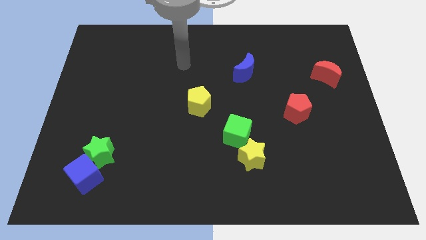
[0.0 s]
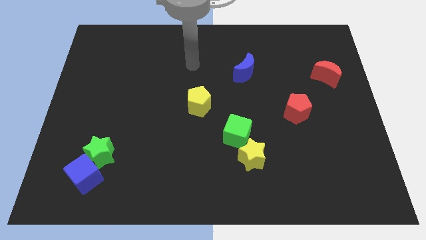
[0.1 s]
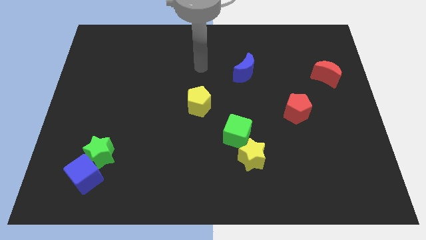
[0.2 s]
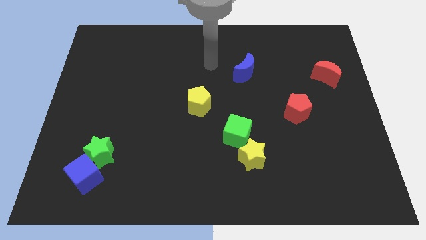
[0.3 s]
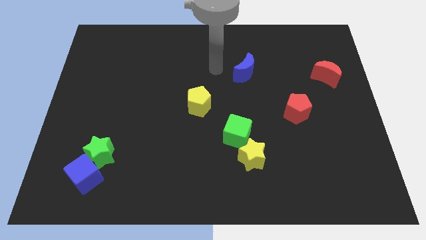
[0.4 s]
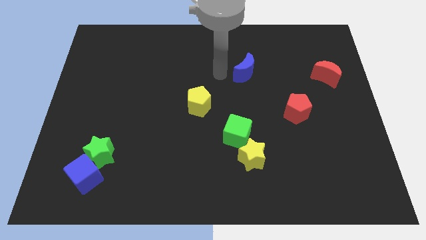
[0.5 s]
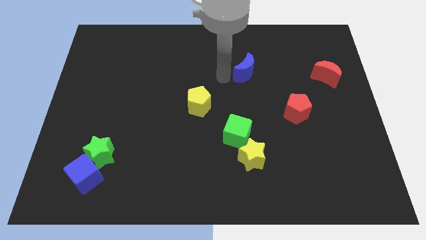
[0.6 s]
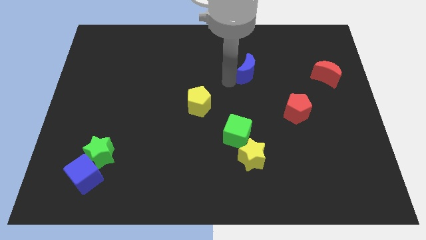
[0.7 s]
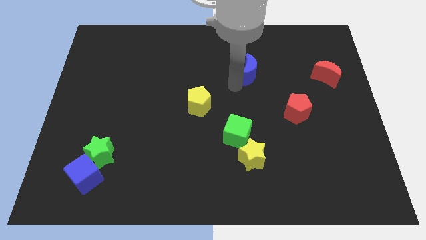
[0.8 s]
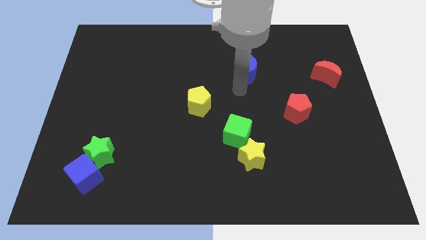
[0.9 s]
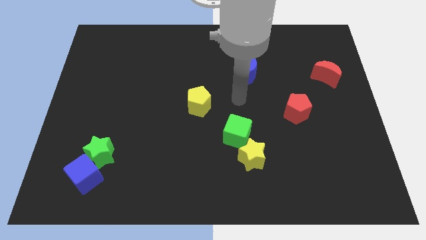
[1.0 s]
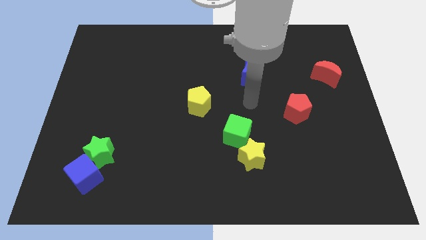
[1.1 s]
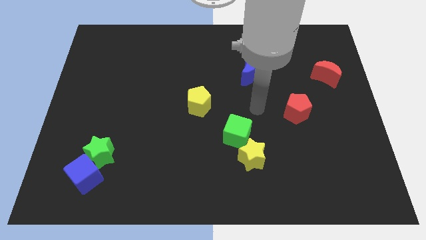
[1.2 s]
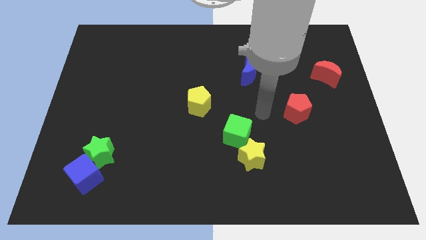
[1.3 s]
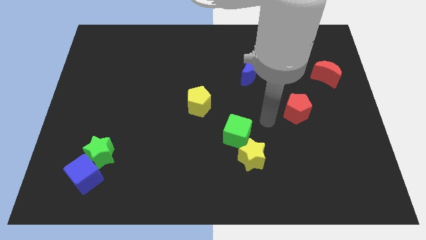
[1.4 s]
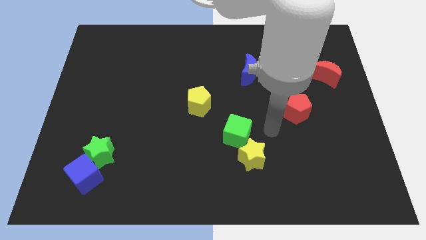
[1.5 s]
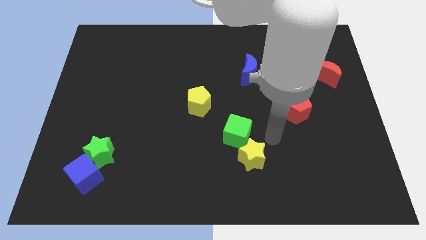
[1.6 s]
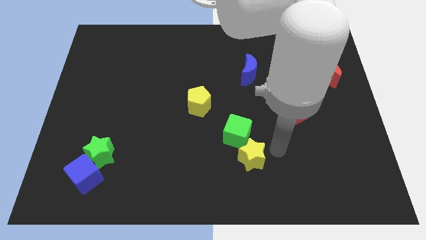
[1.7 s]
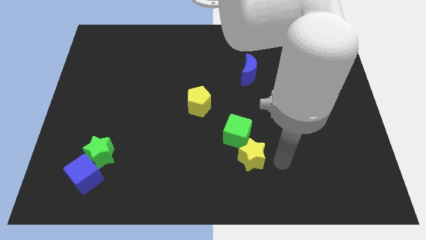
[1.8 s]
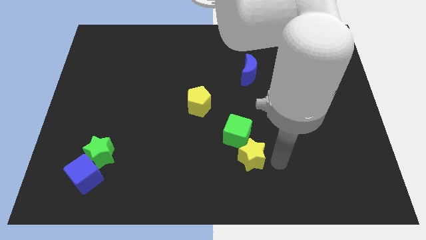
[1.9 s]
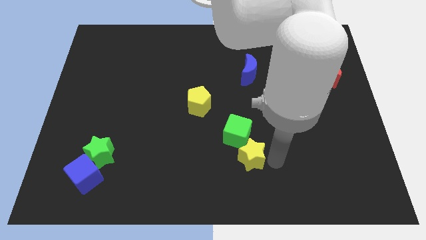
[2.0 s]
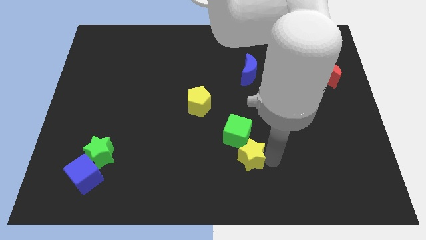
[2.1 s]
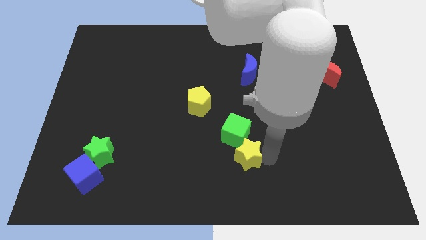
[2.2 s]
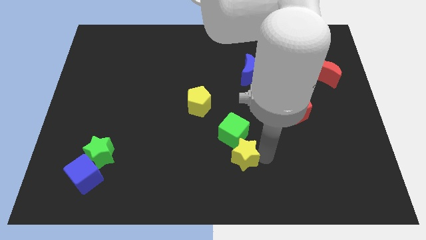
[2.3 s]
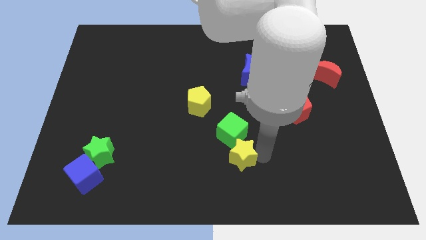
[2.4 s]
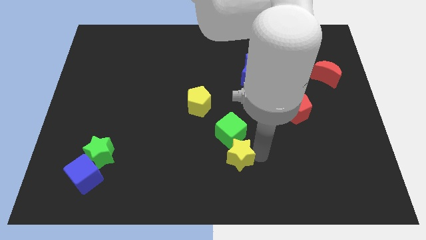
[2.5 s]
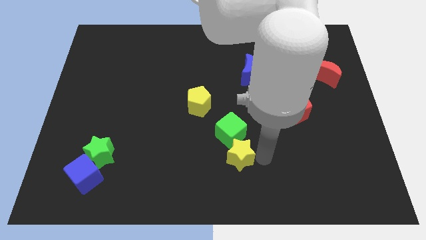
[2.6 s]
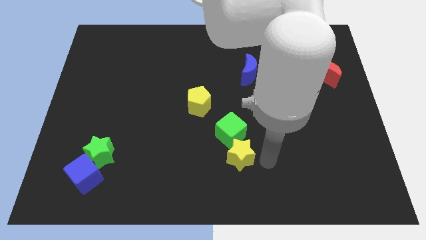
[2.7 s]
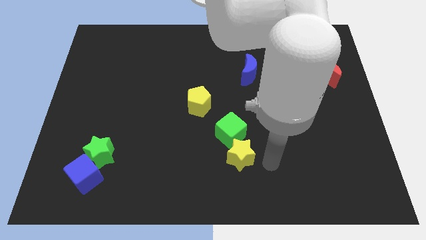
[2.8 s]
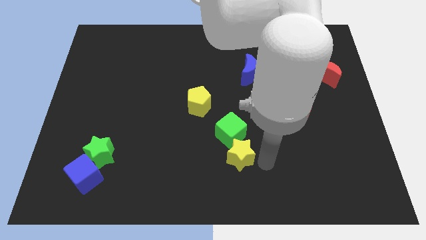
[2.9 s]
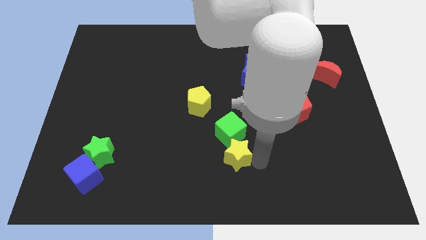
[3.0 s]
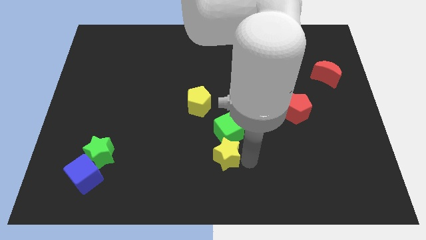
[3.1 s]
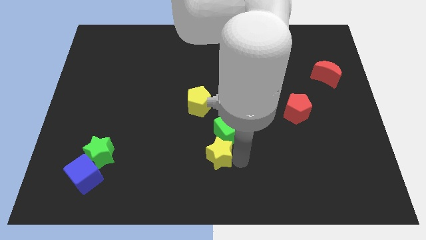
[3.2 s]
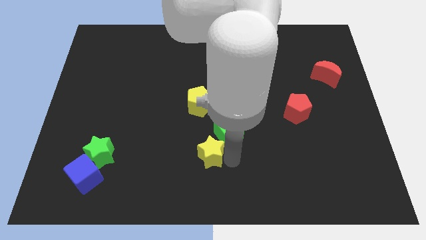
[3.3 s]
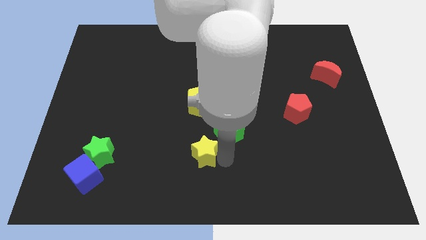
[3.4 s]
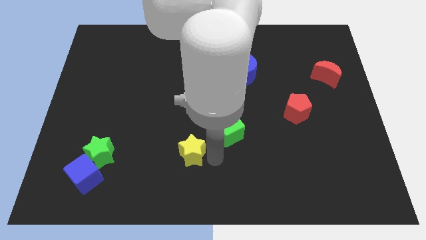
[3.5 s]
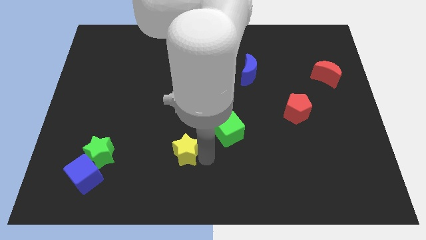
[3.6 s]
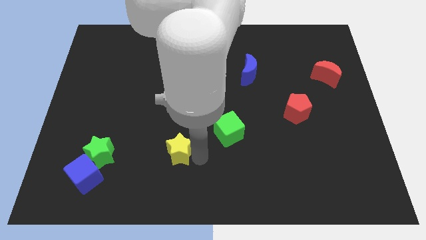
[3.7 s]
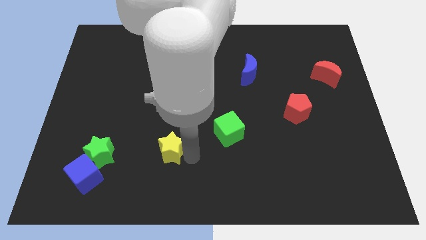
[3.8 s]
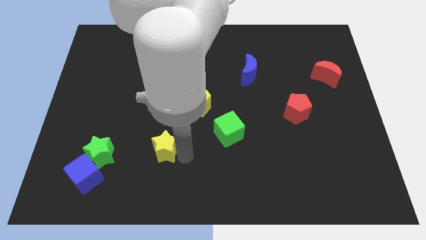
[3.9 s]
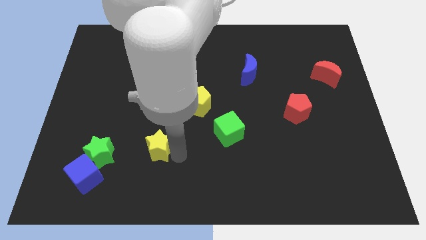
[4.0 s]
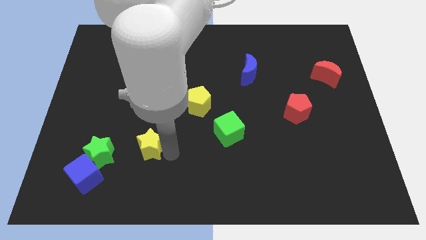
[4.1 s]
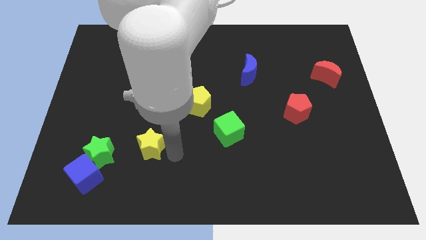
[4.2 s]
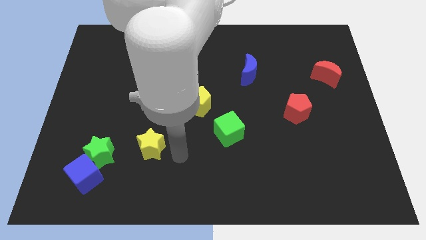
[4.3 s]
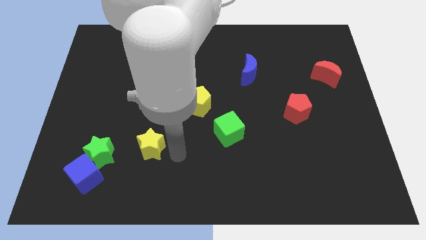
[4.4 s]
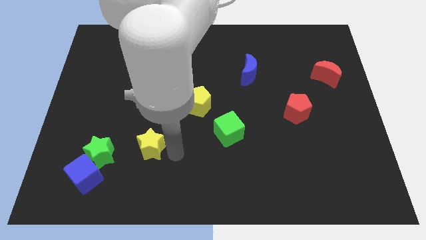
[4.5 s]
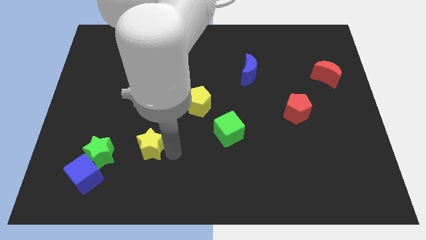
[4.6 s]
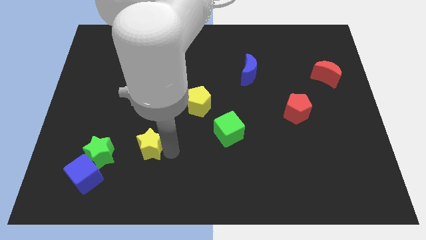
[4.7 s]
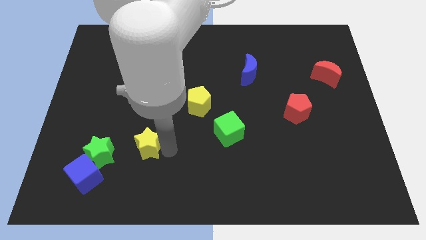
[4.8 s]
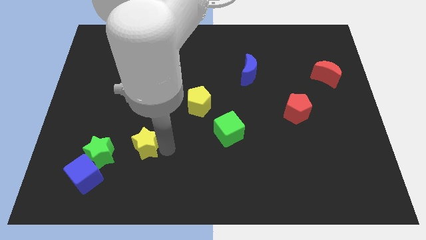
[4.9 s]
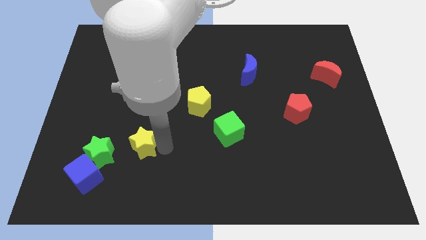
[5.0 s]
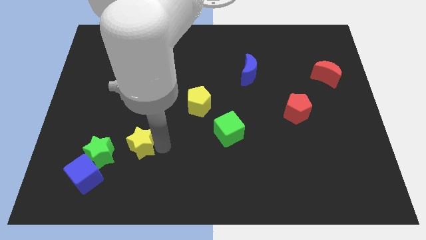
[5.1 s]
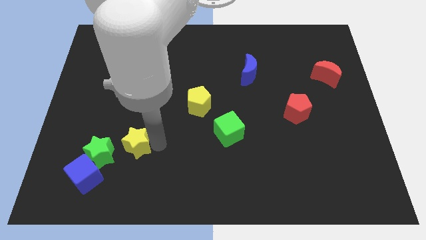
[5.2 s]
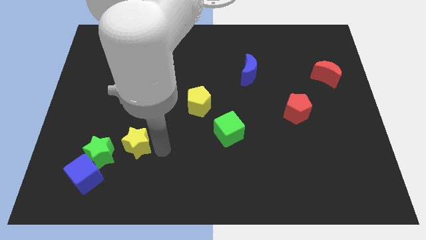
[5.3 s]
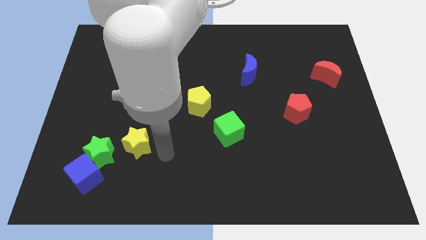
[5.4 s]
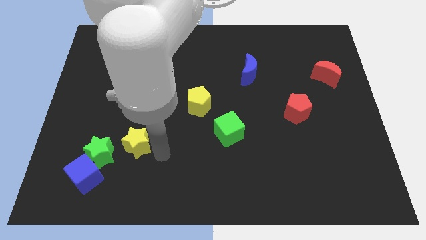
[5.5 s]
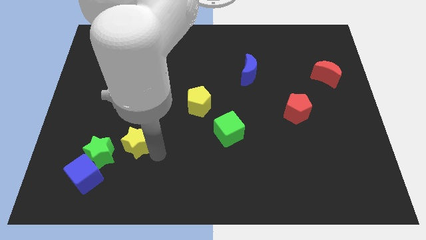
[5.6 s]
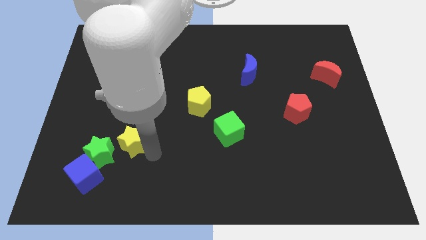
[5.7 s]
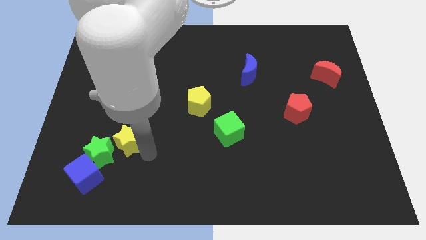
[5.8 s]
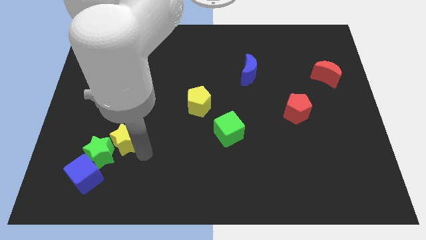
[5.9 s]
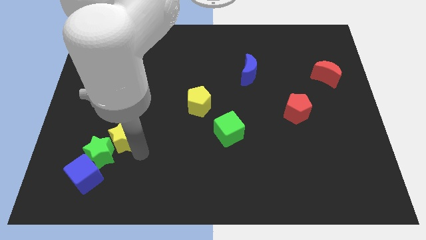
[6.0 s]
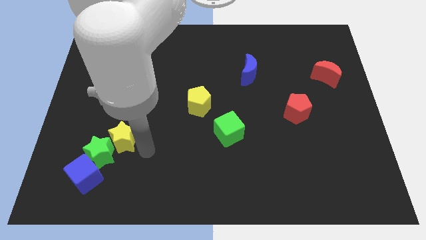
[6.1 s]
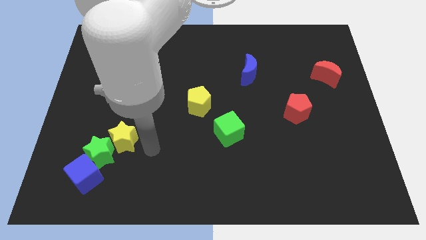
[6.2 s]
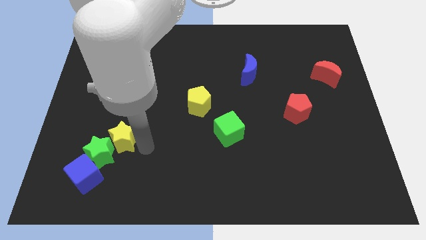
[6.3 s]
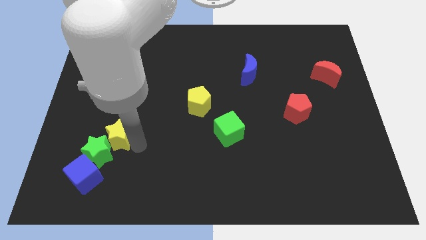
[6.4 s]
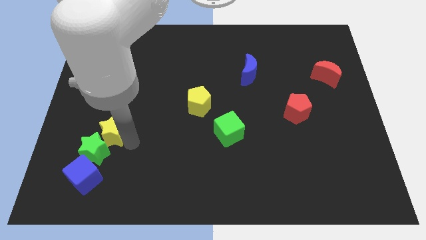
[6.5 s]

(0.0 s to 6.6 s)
move the yellow star to the top of the blue cube

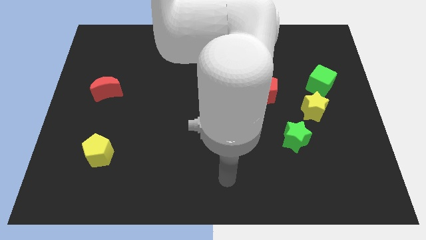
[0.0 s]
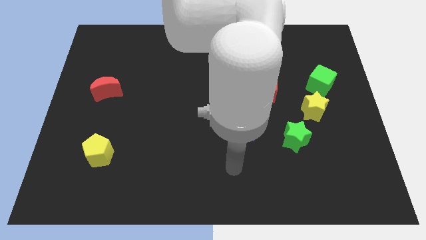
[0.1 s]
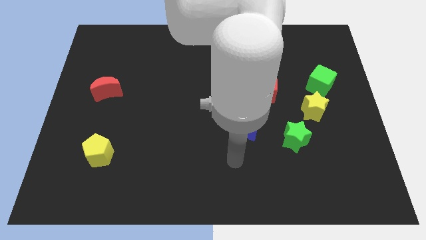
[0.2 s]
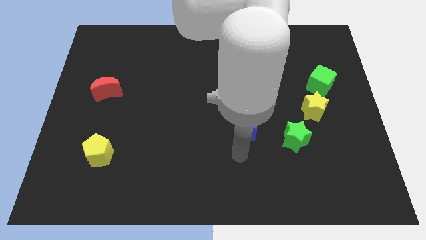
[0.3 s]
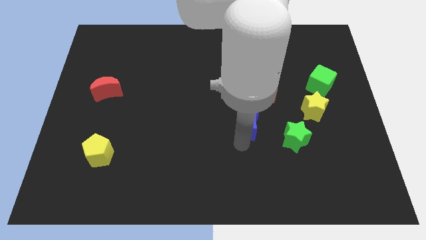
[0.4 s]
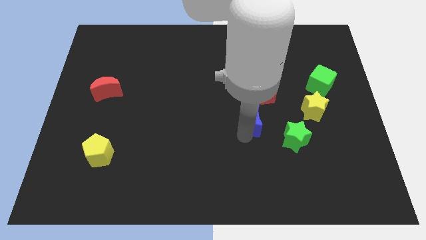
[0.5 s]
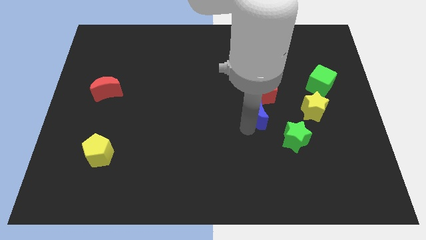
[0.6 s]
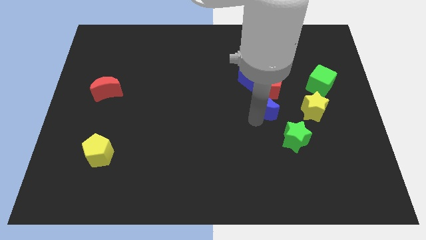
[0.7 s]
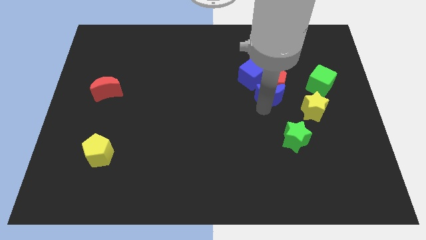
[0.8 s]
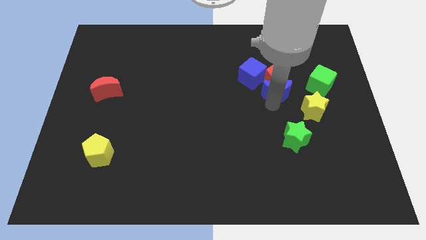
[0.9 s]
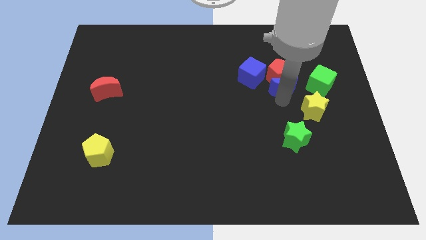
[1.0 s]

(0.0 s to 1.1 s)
slide the red pentagon to the top right of the blue cube

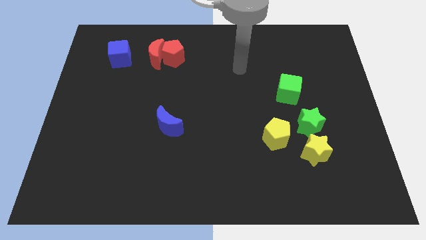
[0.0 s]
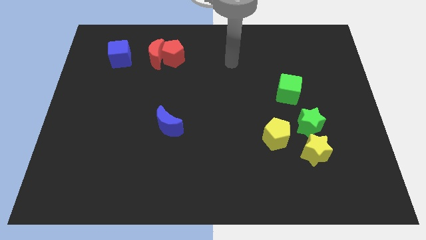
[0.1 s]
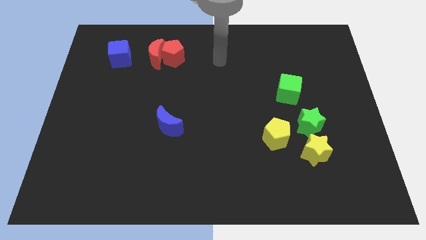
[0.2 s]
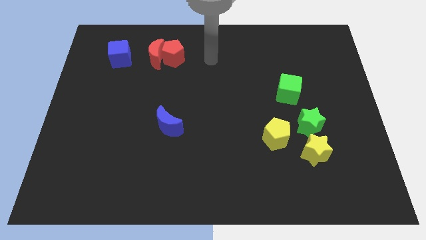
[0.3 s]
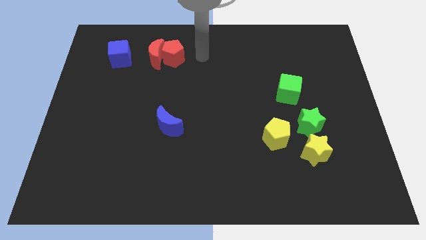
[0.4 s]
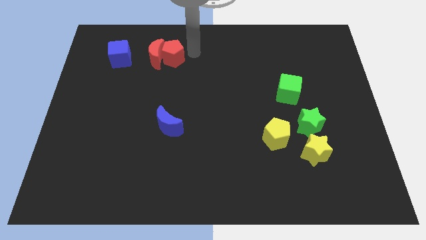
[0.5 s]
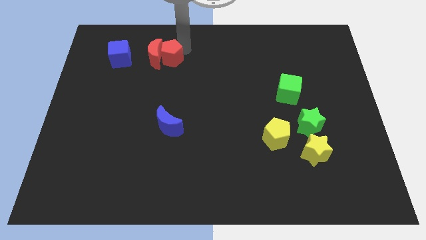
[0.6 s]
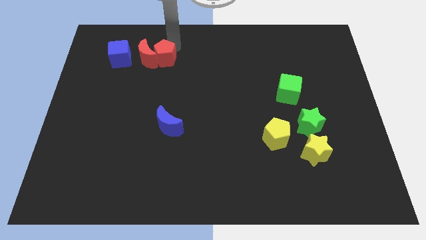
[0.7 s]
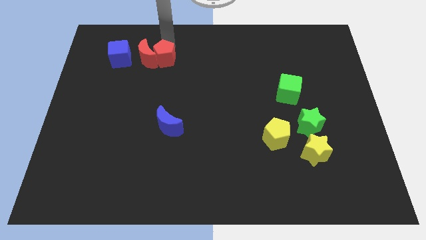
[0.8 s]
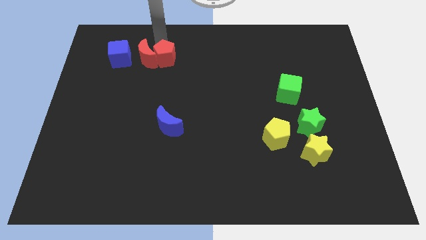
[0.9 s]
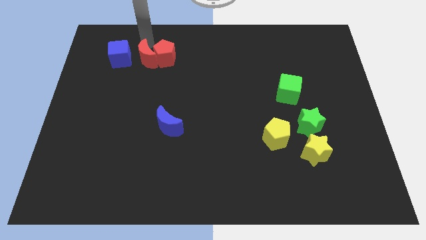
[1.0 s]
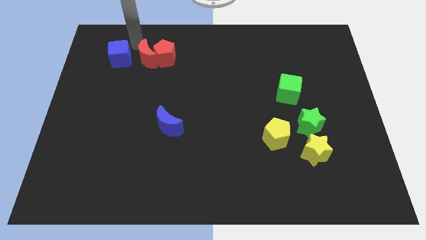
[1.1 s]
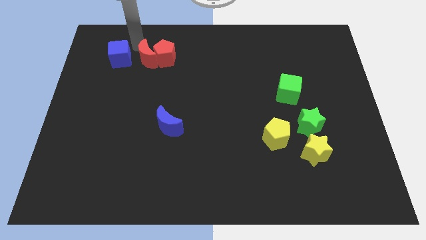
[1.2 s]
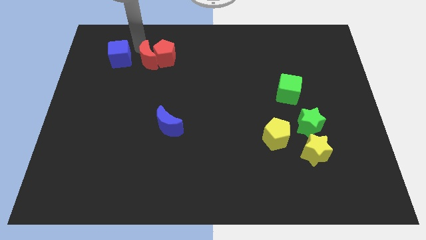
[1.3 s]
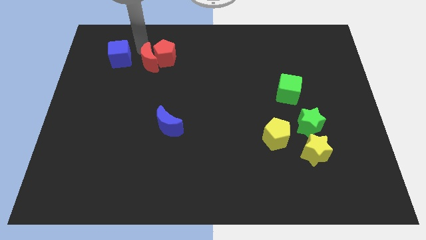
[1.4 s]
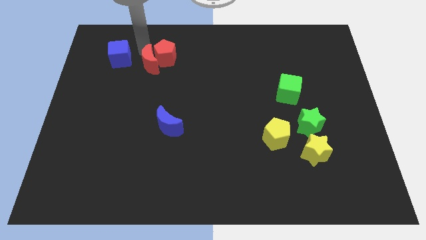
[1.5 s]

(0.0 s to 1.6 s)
move the red moon to the bottom of the red pentagon
